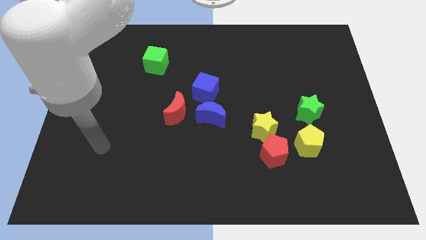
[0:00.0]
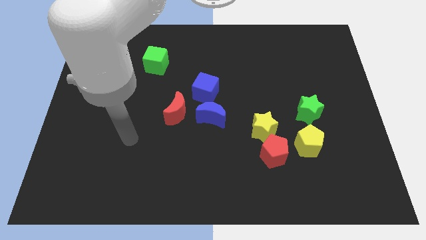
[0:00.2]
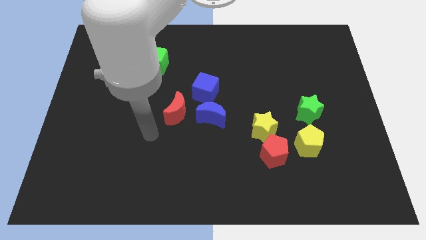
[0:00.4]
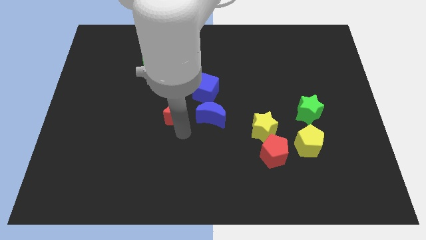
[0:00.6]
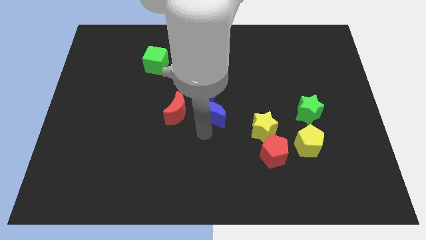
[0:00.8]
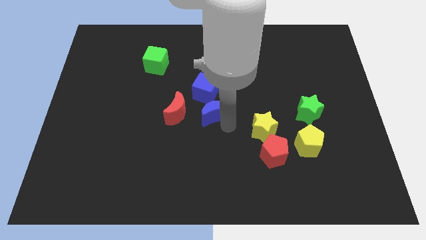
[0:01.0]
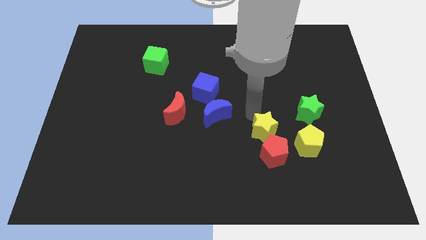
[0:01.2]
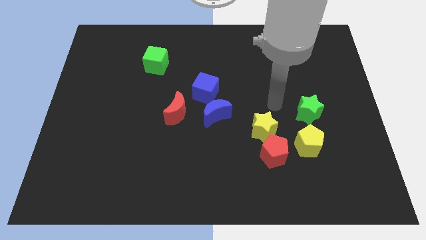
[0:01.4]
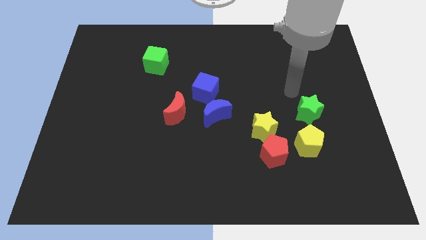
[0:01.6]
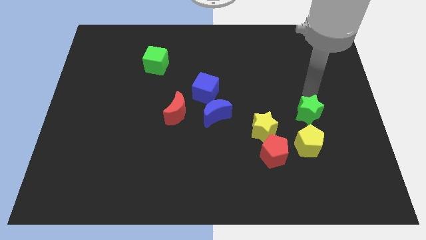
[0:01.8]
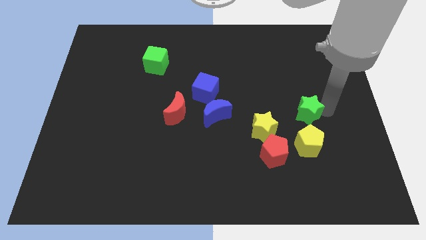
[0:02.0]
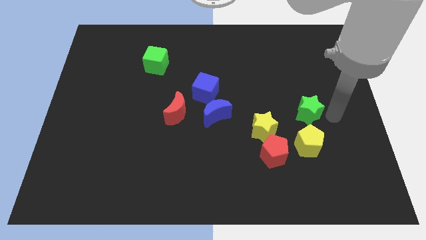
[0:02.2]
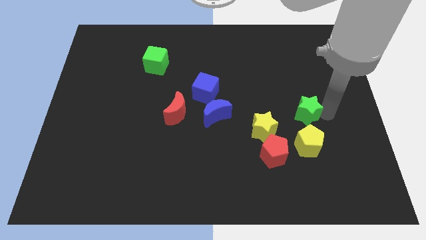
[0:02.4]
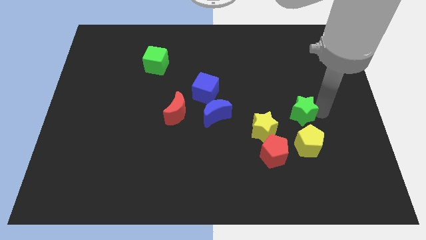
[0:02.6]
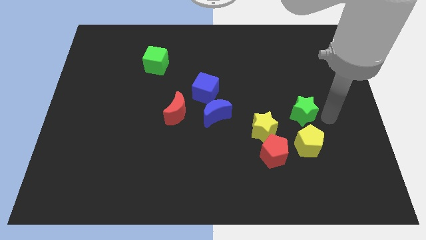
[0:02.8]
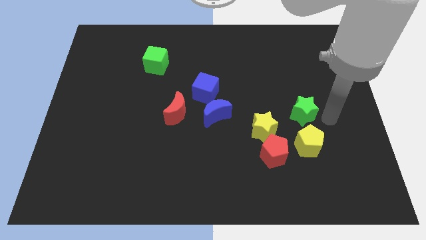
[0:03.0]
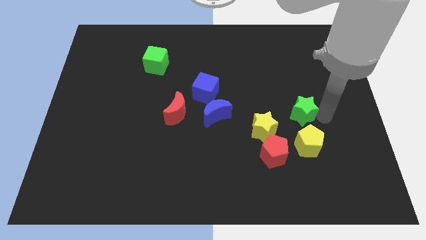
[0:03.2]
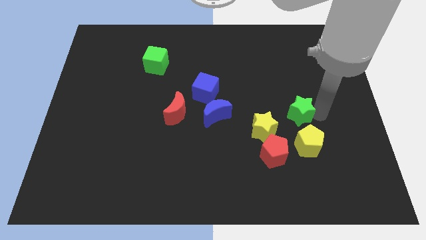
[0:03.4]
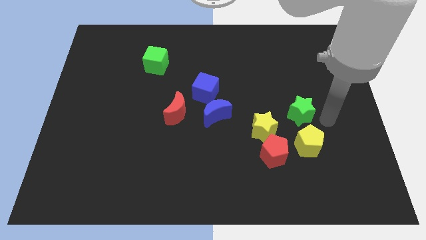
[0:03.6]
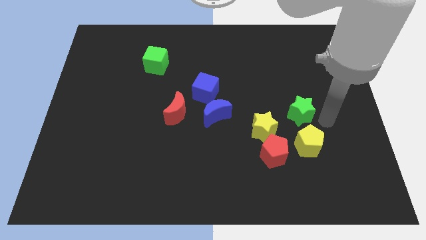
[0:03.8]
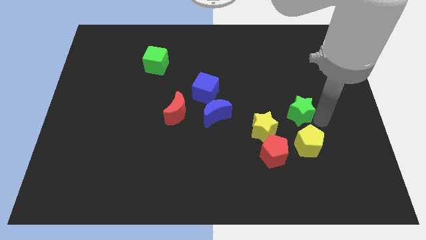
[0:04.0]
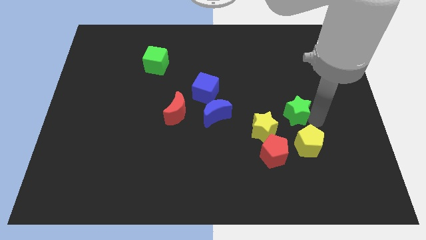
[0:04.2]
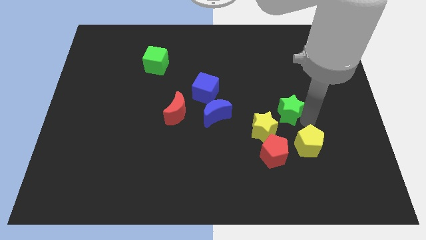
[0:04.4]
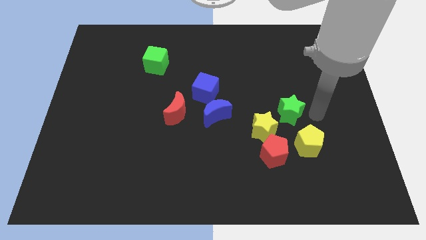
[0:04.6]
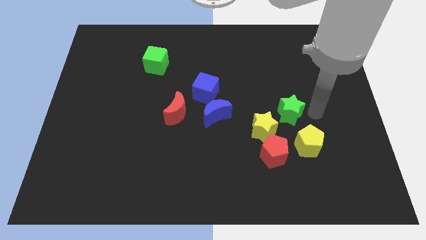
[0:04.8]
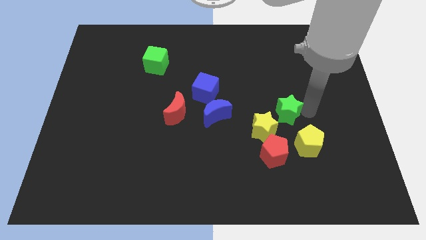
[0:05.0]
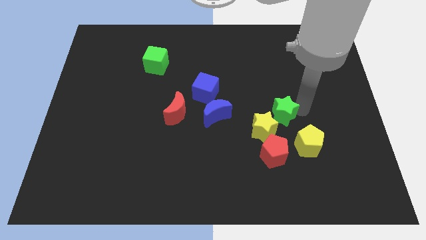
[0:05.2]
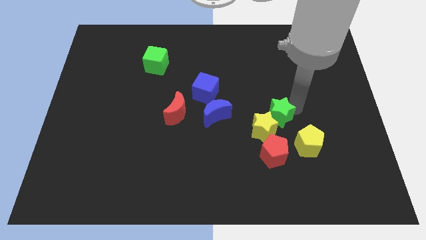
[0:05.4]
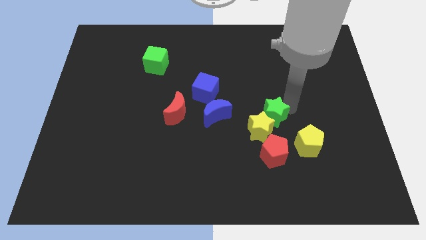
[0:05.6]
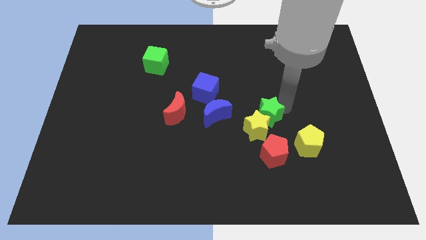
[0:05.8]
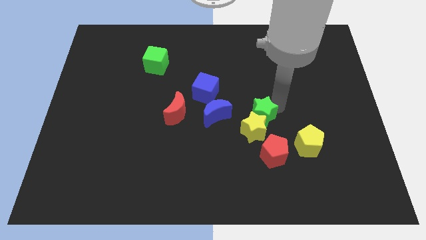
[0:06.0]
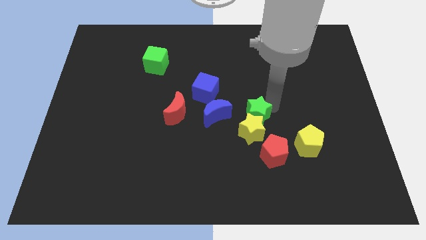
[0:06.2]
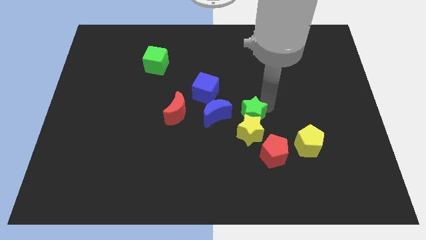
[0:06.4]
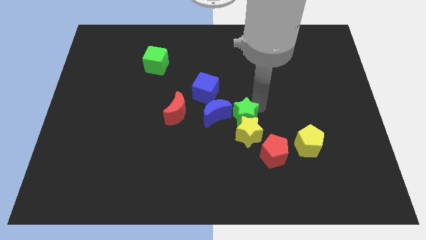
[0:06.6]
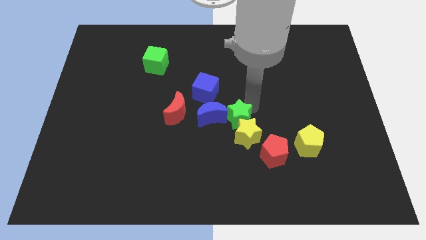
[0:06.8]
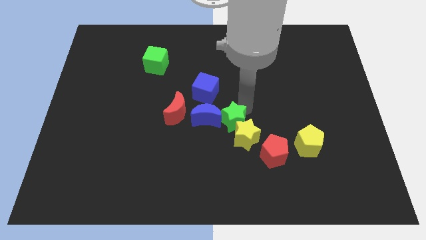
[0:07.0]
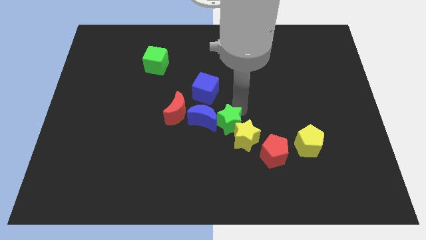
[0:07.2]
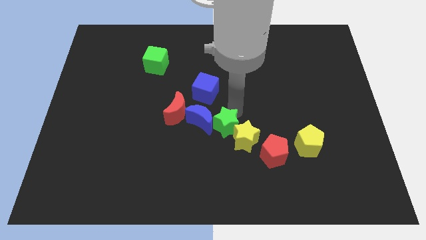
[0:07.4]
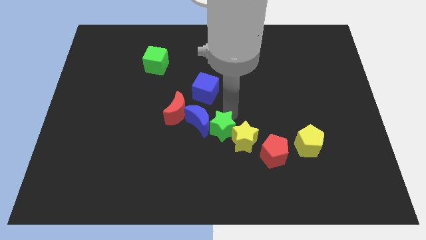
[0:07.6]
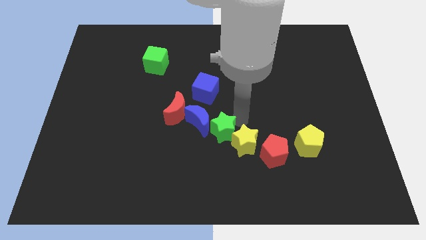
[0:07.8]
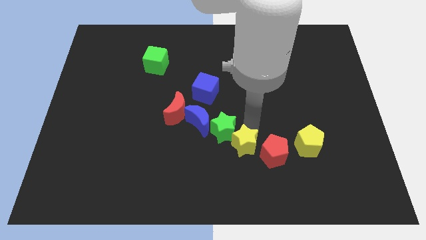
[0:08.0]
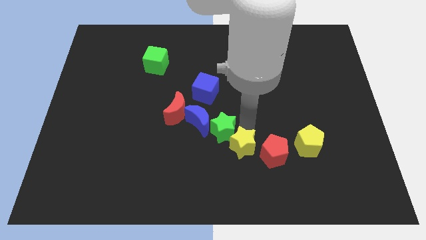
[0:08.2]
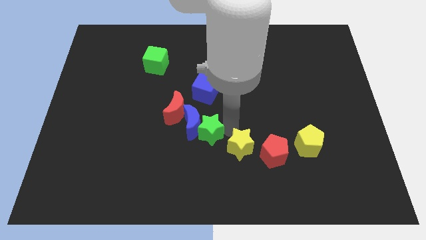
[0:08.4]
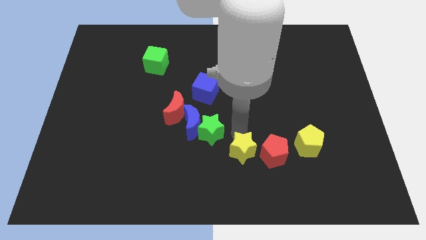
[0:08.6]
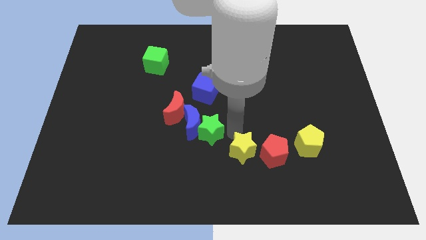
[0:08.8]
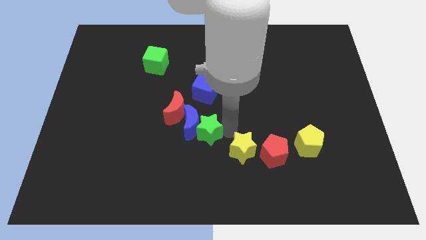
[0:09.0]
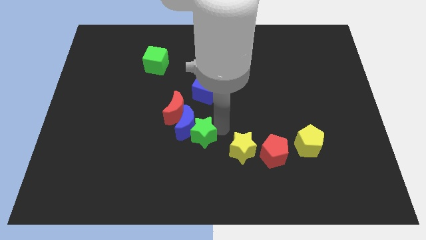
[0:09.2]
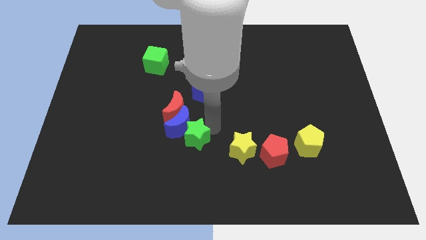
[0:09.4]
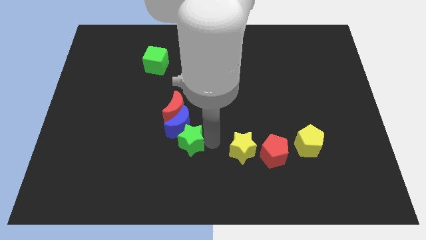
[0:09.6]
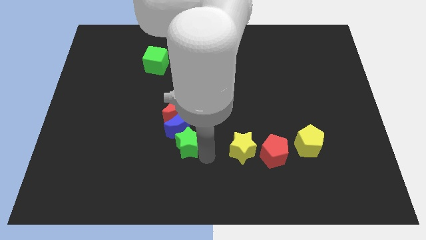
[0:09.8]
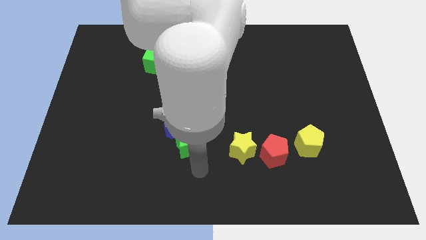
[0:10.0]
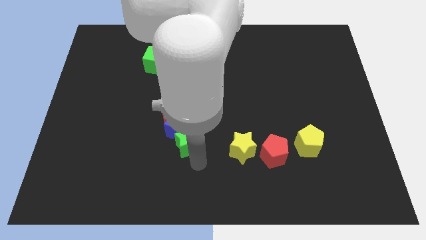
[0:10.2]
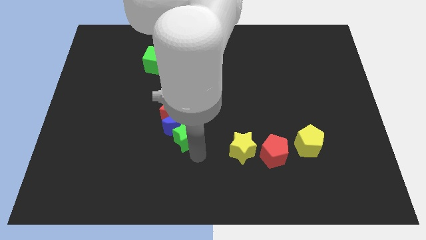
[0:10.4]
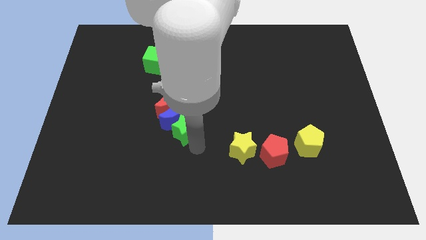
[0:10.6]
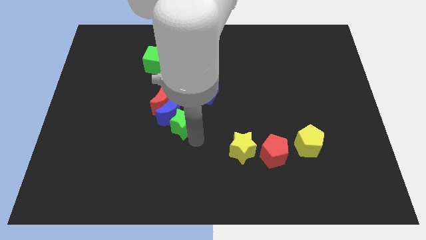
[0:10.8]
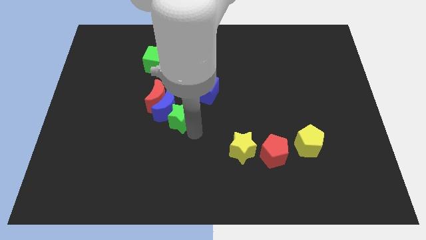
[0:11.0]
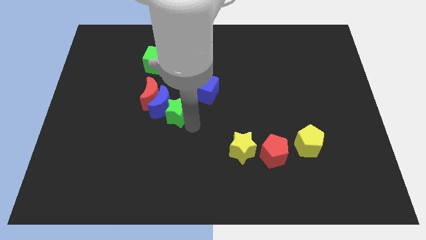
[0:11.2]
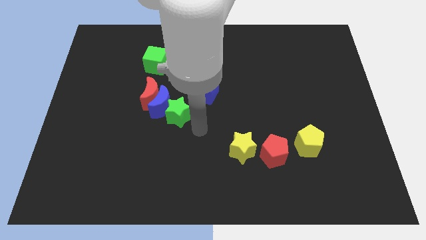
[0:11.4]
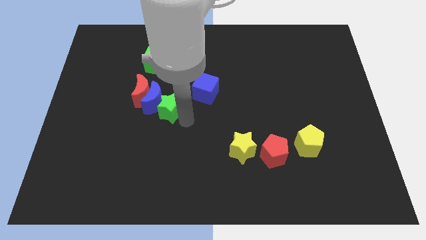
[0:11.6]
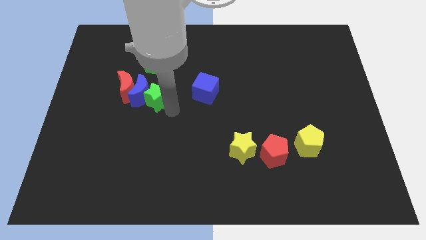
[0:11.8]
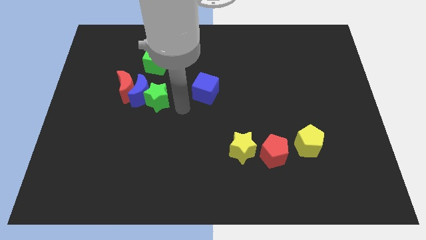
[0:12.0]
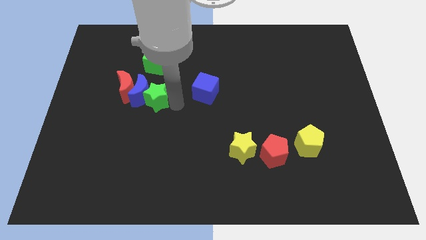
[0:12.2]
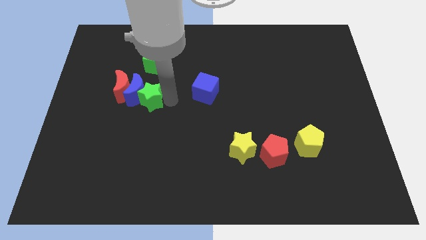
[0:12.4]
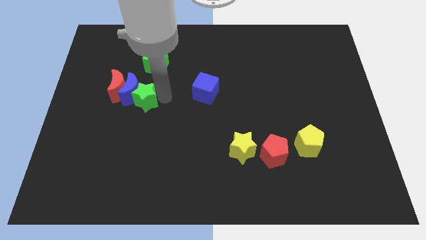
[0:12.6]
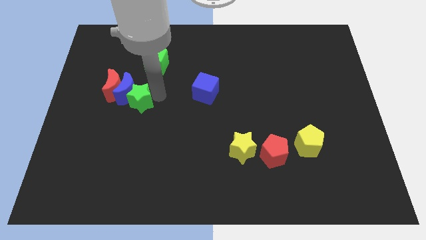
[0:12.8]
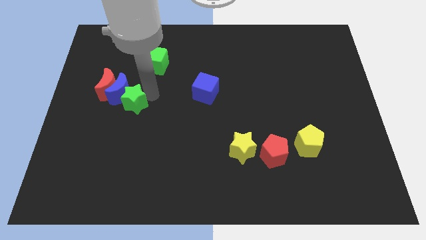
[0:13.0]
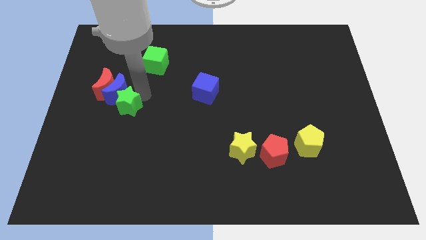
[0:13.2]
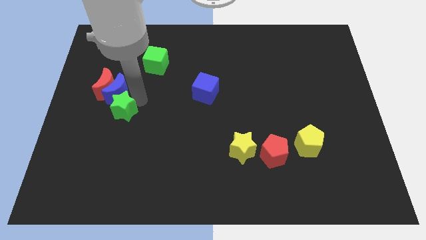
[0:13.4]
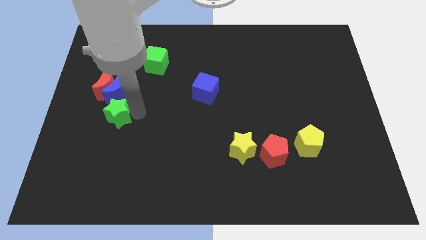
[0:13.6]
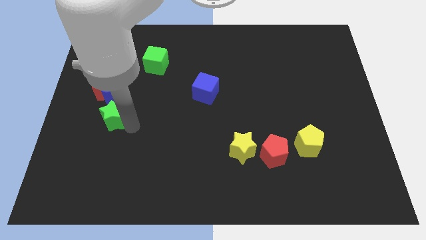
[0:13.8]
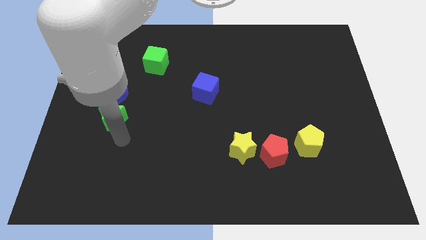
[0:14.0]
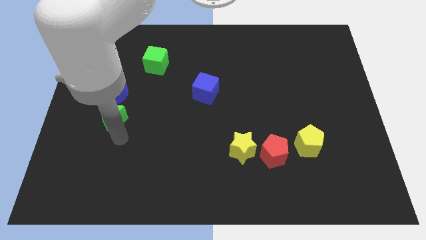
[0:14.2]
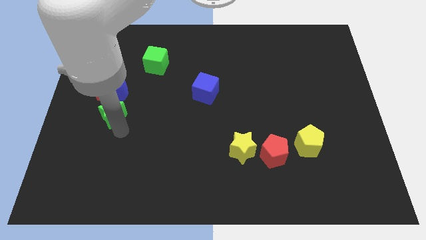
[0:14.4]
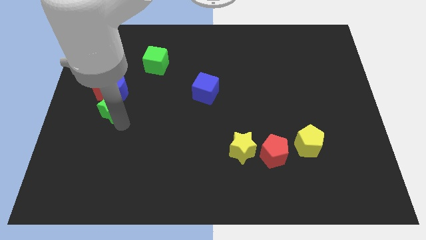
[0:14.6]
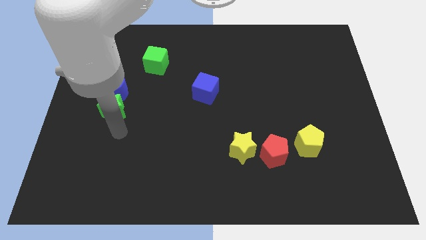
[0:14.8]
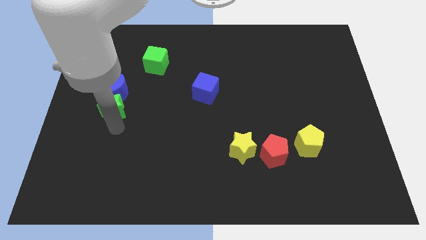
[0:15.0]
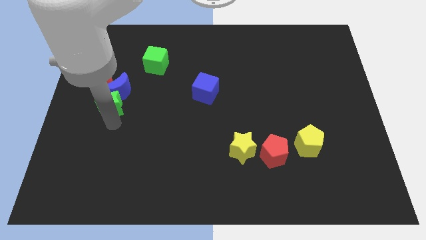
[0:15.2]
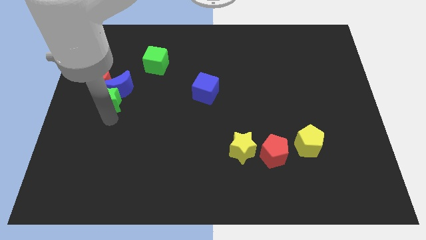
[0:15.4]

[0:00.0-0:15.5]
put the green star to the red moon
